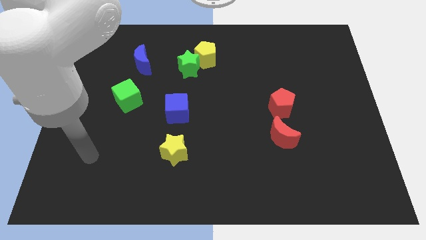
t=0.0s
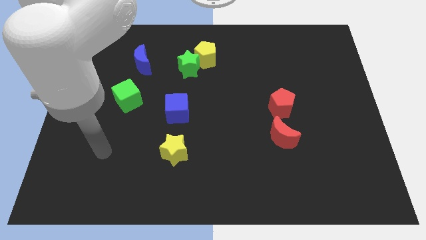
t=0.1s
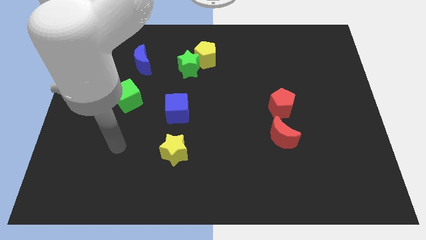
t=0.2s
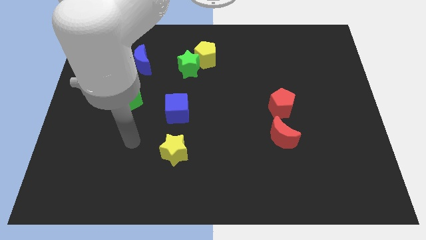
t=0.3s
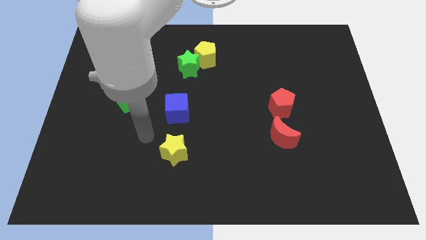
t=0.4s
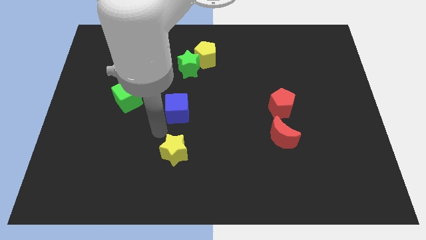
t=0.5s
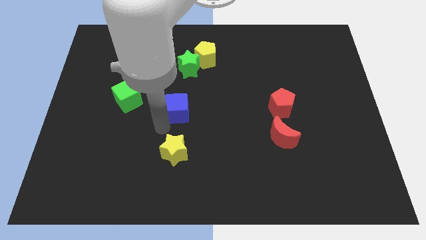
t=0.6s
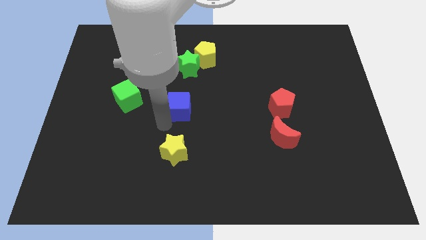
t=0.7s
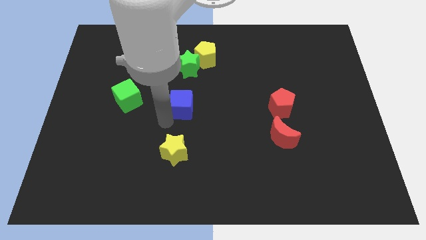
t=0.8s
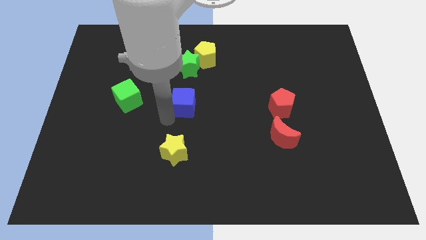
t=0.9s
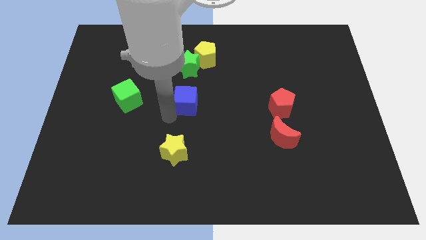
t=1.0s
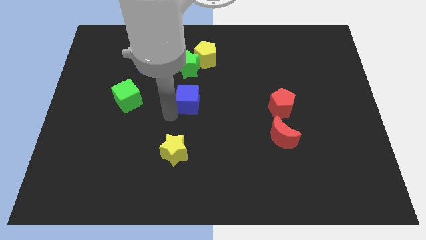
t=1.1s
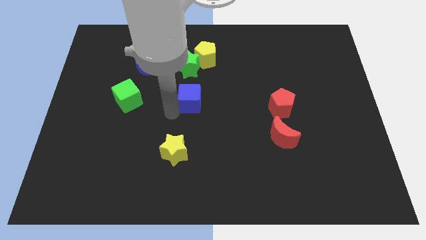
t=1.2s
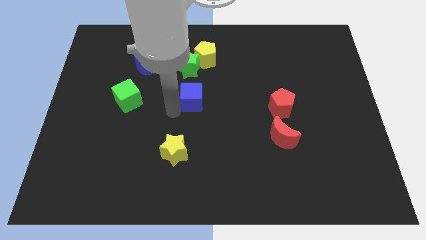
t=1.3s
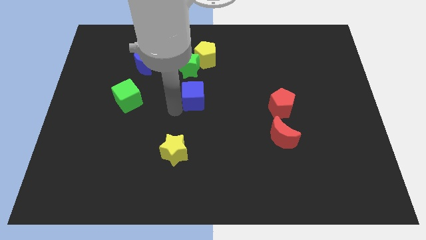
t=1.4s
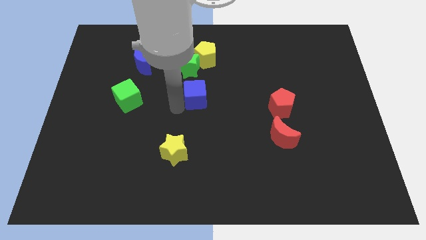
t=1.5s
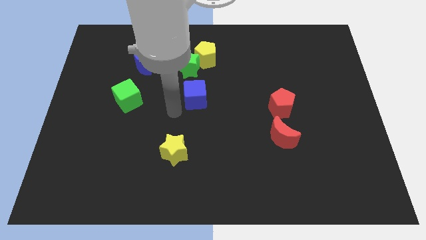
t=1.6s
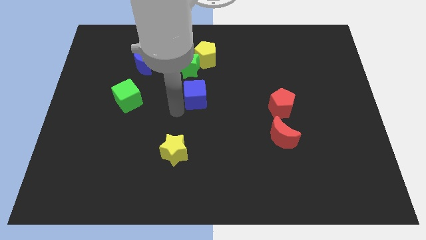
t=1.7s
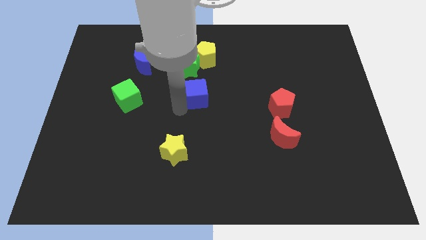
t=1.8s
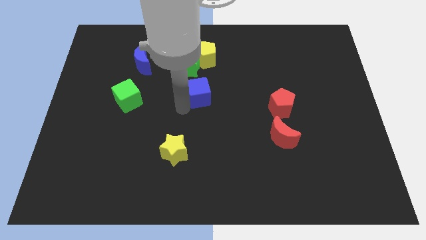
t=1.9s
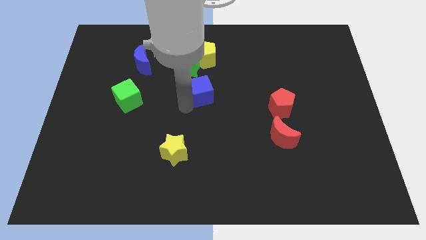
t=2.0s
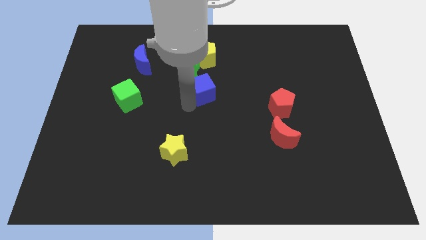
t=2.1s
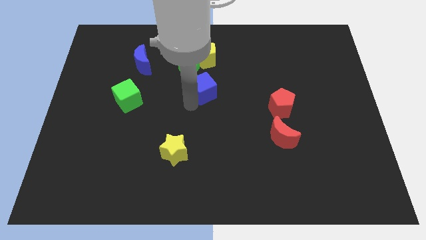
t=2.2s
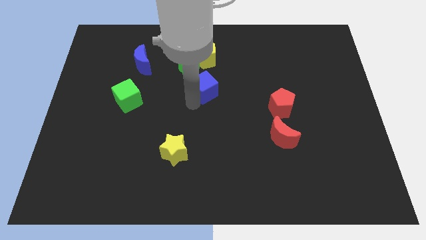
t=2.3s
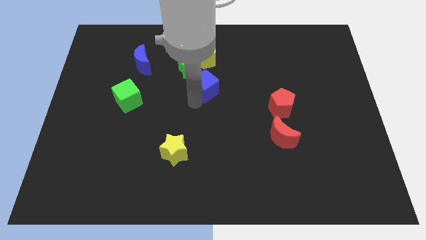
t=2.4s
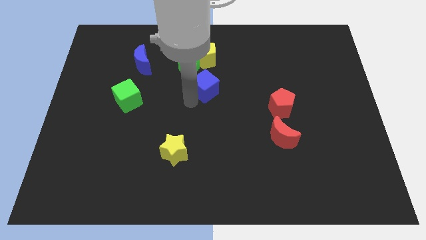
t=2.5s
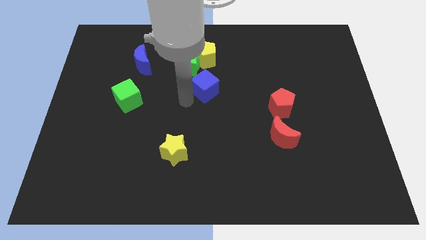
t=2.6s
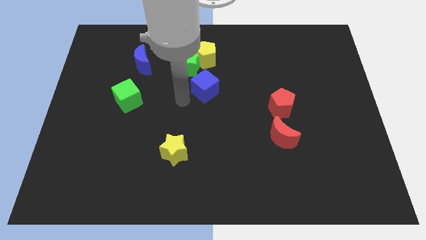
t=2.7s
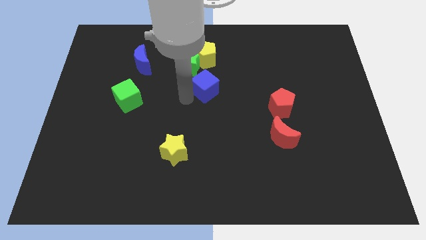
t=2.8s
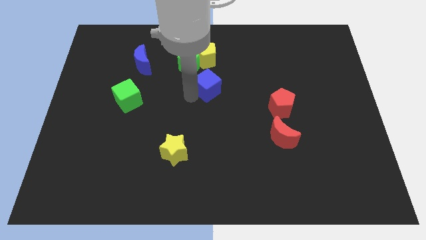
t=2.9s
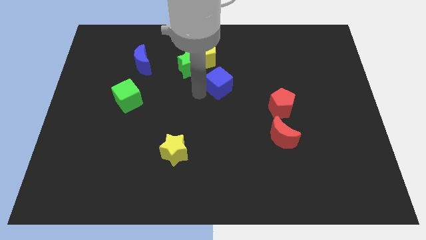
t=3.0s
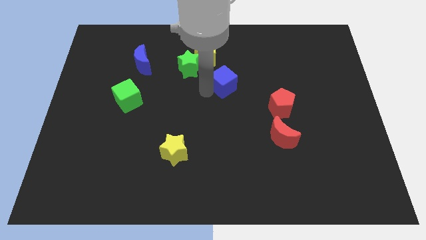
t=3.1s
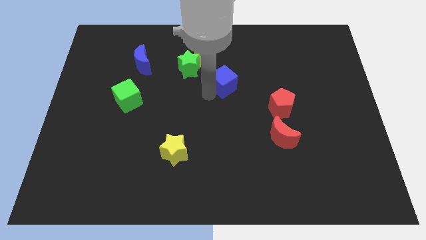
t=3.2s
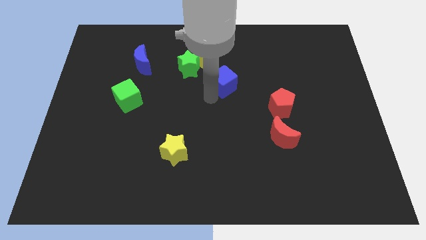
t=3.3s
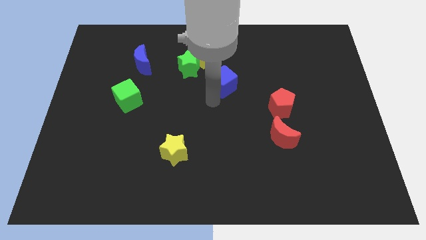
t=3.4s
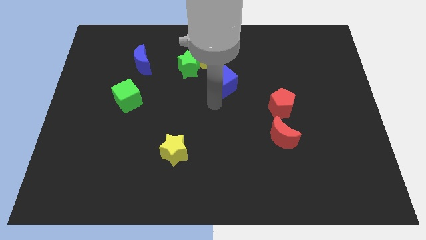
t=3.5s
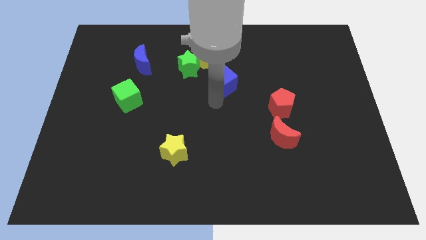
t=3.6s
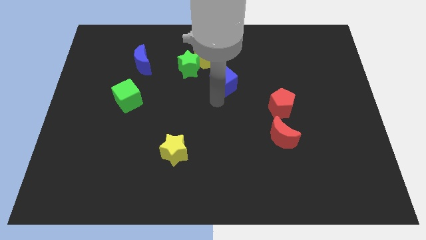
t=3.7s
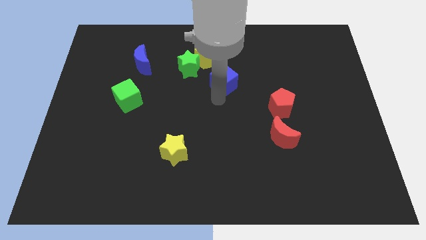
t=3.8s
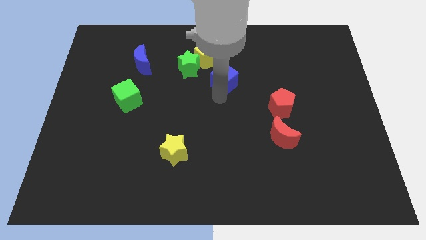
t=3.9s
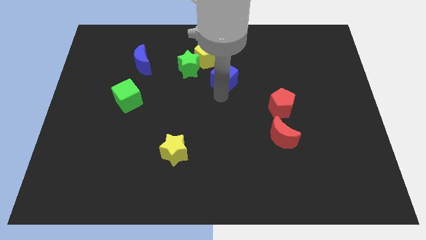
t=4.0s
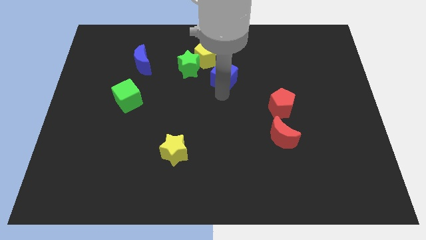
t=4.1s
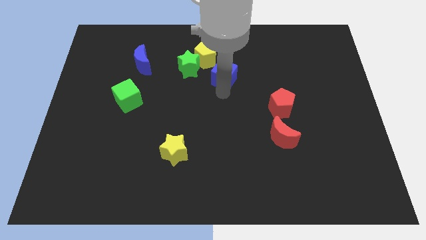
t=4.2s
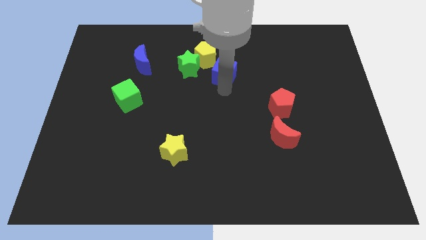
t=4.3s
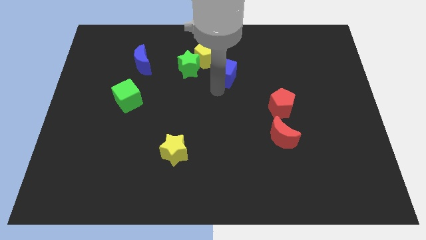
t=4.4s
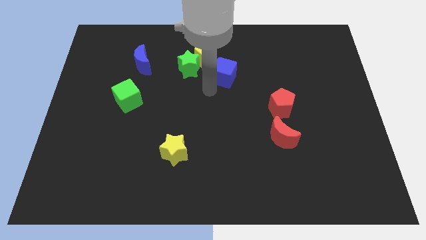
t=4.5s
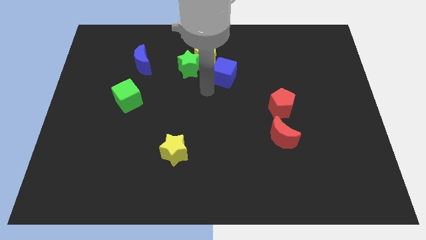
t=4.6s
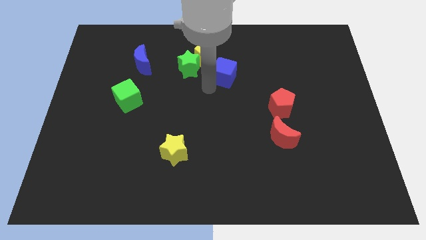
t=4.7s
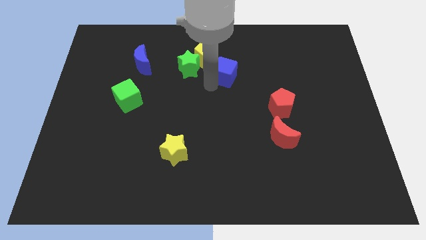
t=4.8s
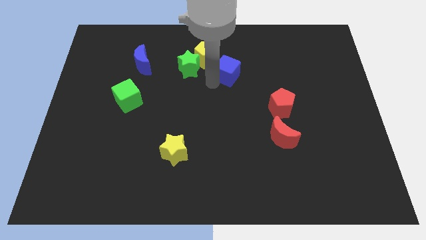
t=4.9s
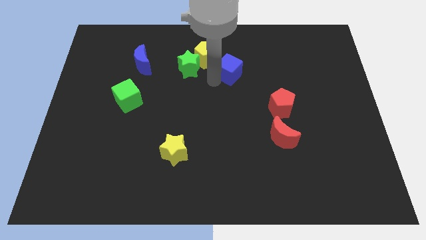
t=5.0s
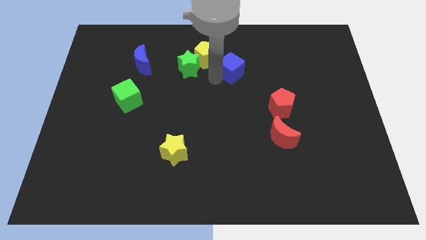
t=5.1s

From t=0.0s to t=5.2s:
push the blue cube to the right side of the yellow pentagon

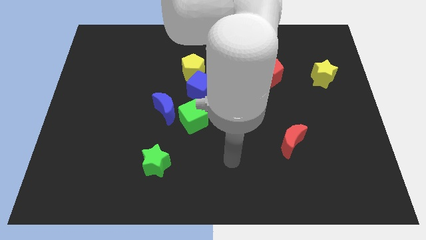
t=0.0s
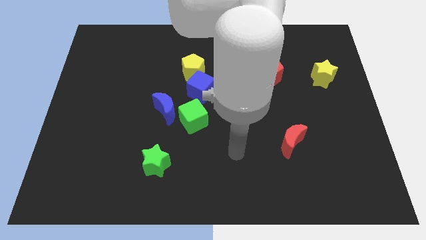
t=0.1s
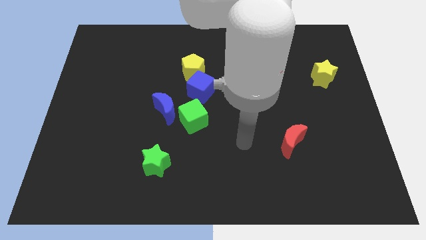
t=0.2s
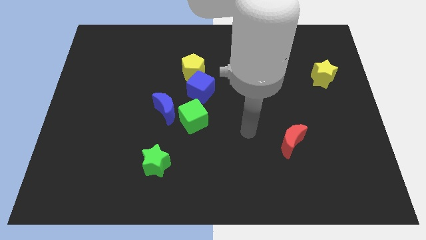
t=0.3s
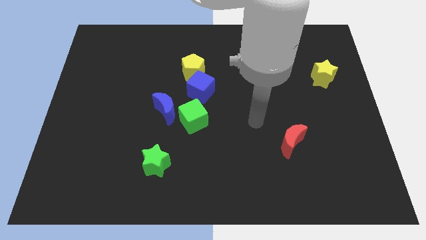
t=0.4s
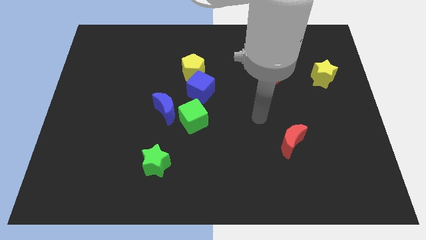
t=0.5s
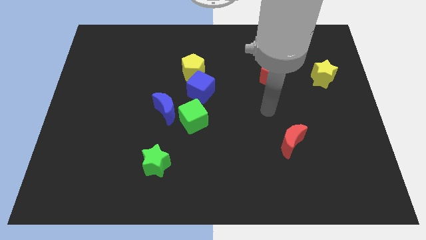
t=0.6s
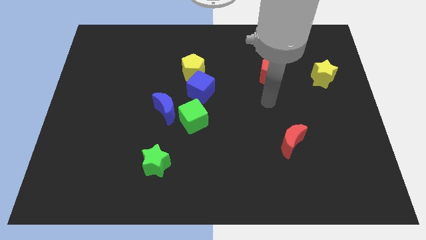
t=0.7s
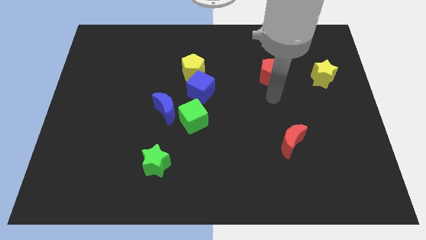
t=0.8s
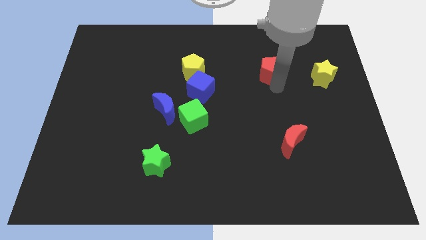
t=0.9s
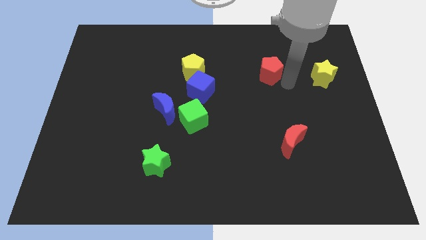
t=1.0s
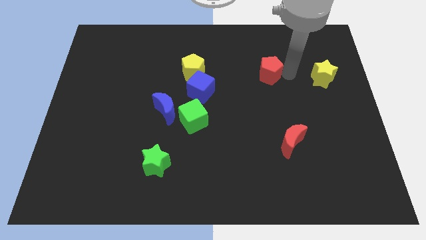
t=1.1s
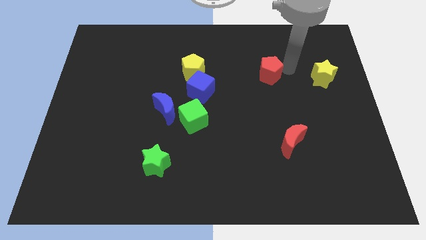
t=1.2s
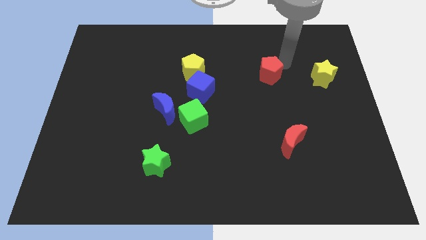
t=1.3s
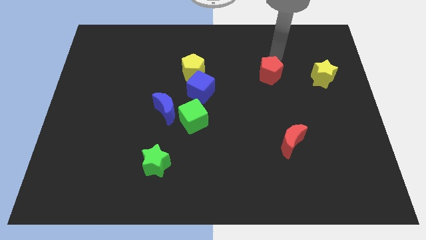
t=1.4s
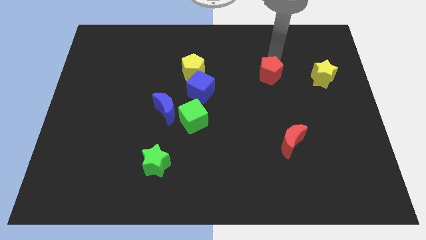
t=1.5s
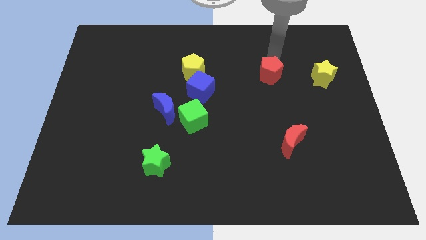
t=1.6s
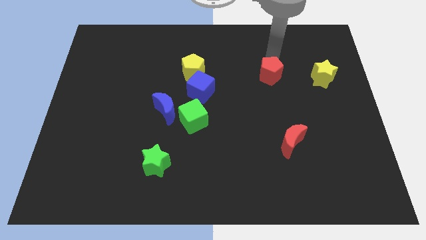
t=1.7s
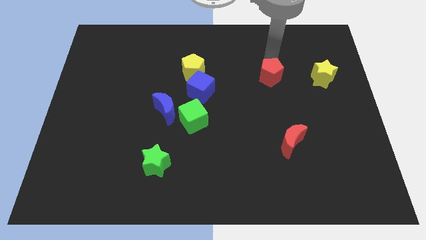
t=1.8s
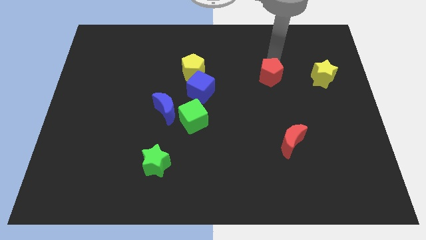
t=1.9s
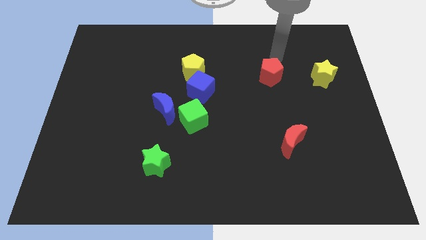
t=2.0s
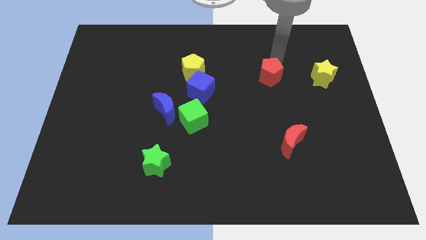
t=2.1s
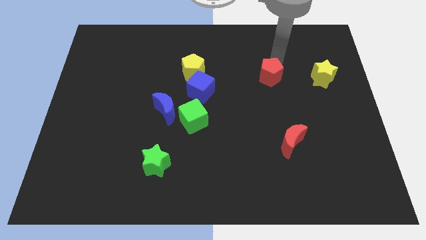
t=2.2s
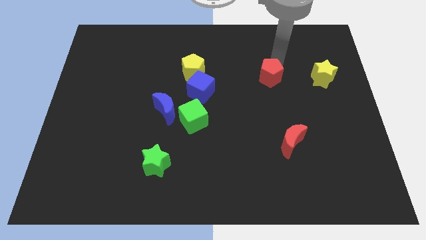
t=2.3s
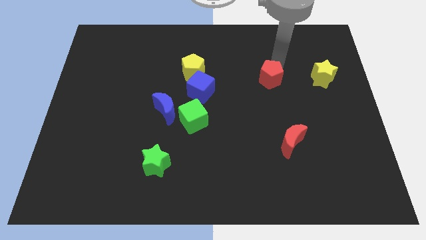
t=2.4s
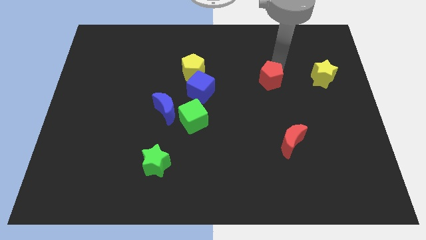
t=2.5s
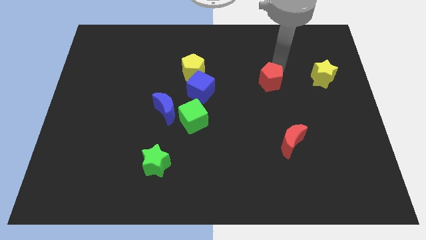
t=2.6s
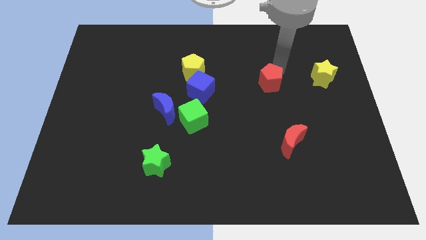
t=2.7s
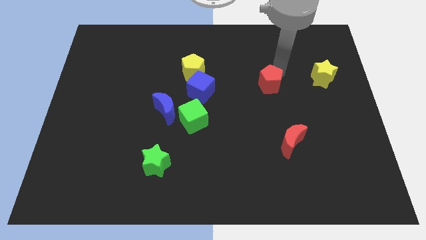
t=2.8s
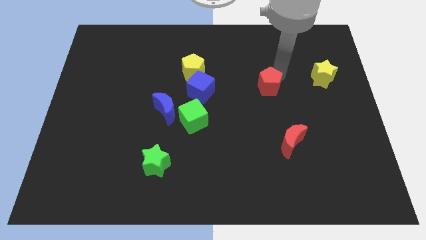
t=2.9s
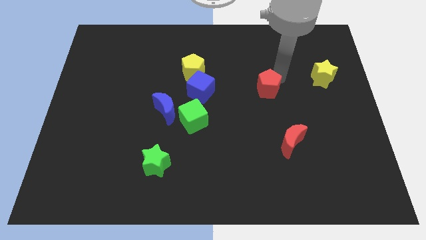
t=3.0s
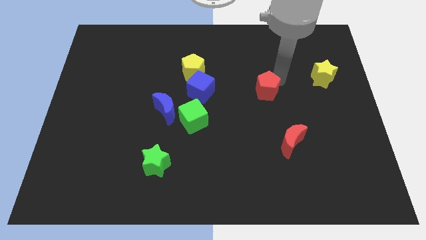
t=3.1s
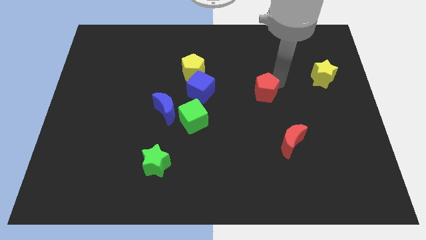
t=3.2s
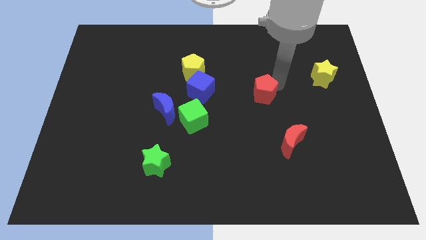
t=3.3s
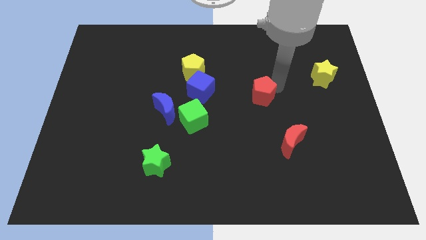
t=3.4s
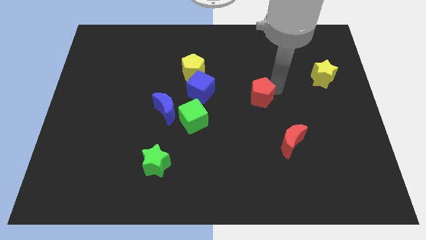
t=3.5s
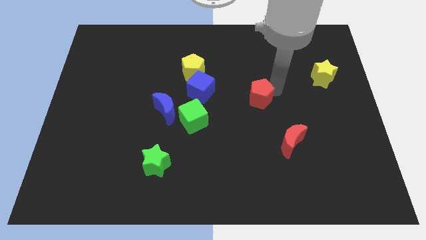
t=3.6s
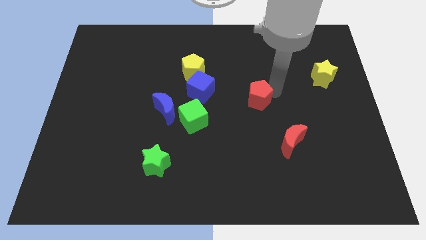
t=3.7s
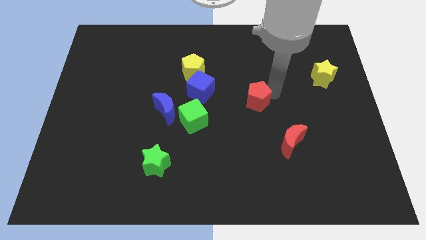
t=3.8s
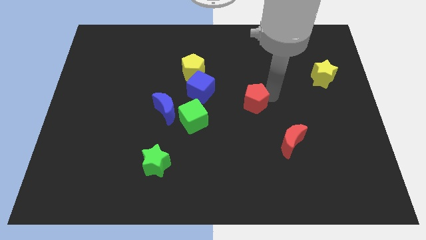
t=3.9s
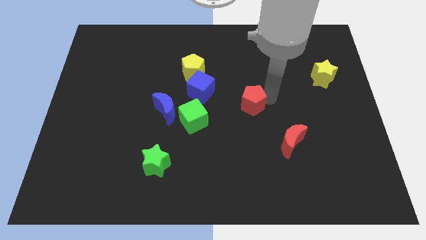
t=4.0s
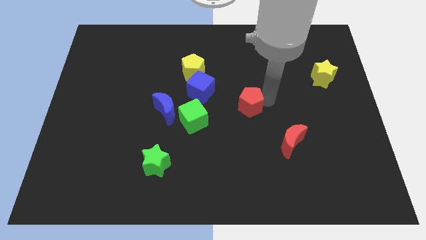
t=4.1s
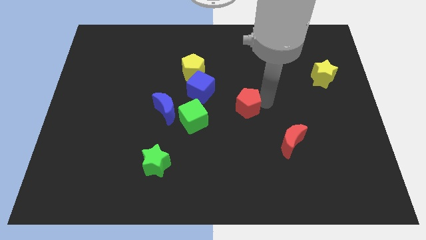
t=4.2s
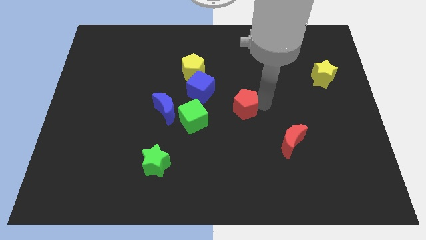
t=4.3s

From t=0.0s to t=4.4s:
slide the red pentagon to the bottom right of the blue cube
